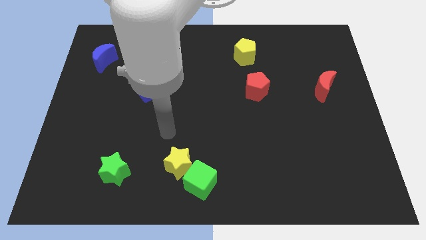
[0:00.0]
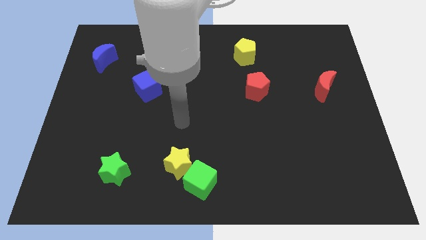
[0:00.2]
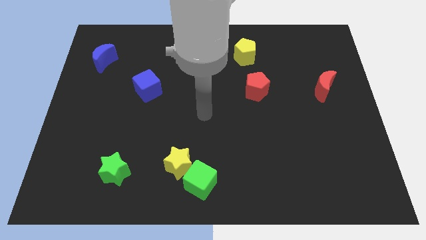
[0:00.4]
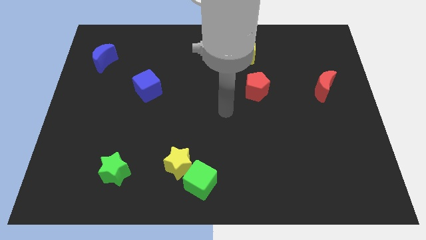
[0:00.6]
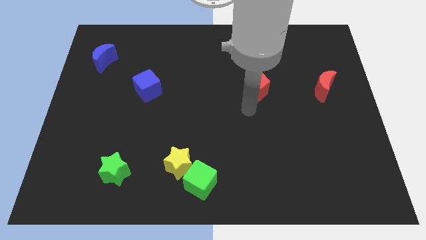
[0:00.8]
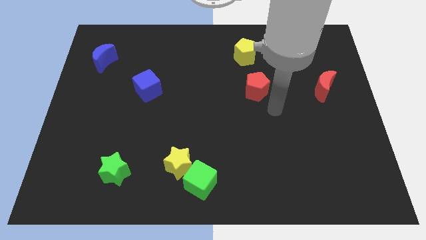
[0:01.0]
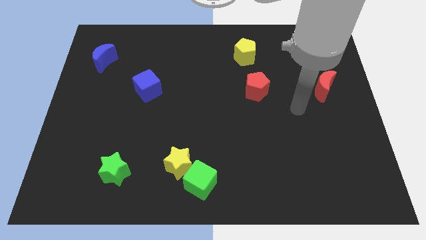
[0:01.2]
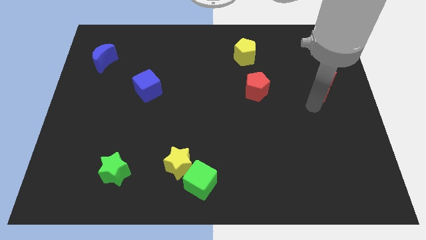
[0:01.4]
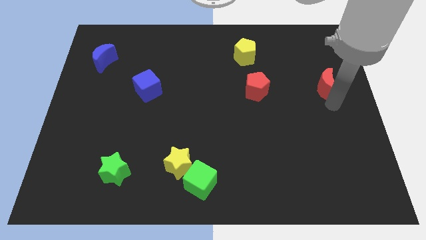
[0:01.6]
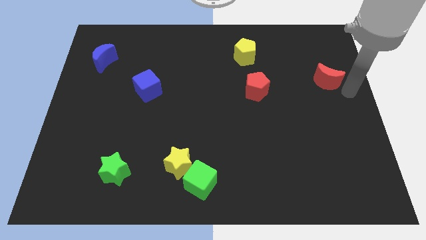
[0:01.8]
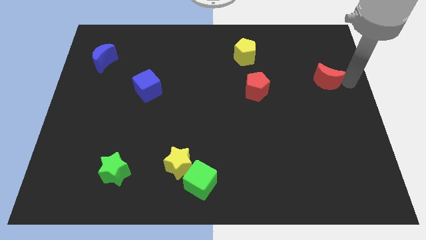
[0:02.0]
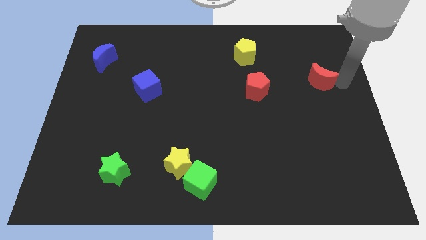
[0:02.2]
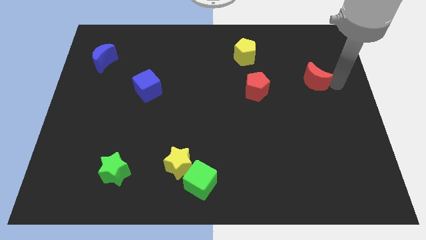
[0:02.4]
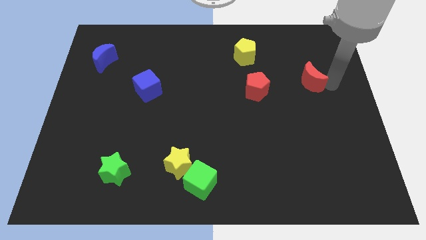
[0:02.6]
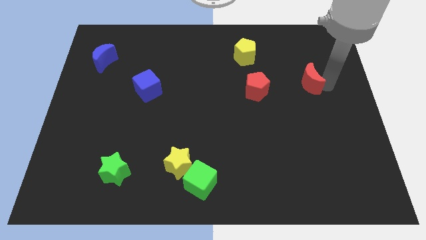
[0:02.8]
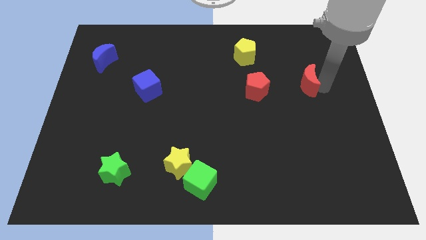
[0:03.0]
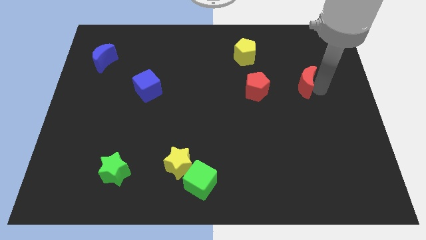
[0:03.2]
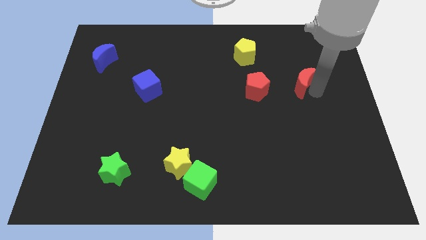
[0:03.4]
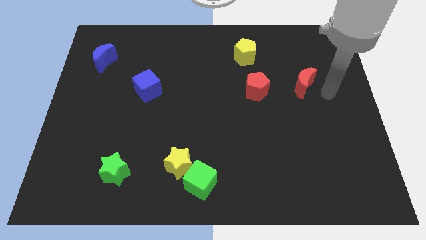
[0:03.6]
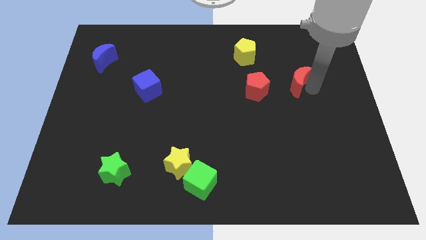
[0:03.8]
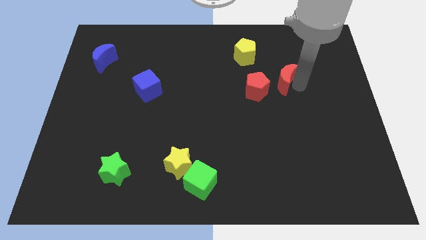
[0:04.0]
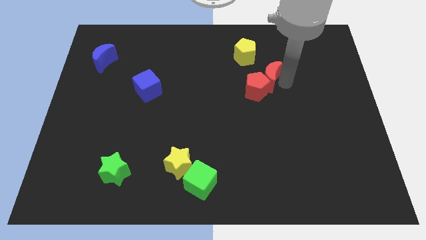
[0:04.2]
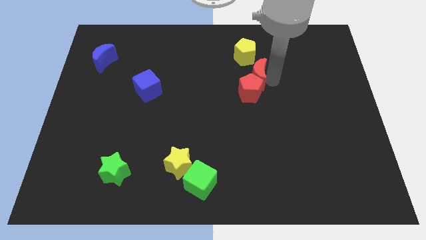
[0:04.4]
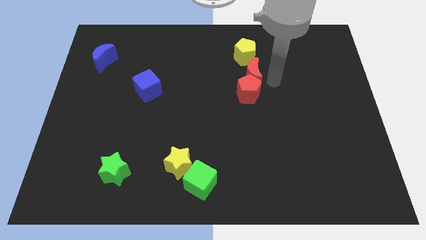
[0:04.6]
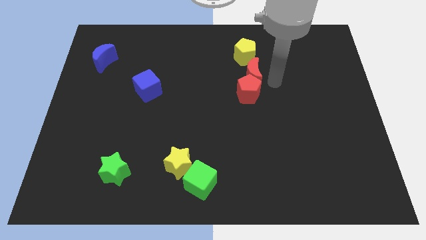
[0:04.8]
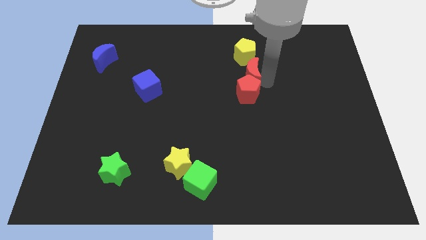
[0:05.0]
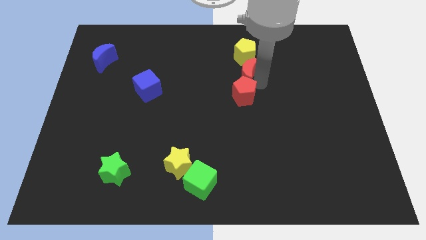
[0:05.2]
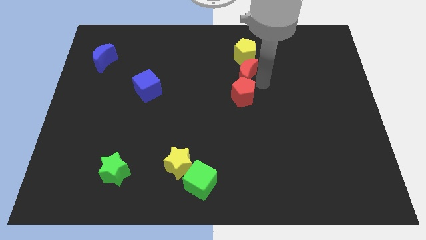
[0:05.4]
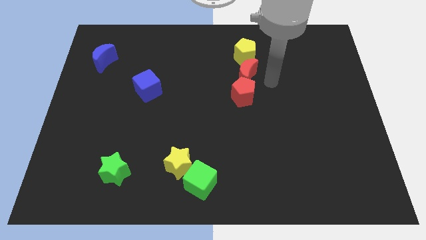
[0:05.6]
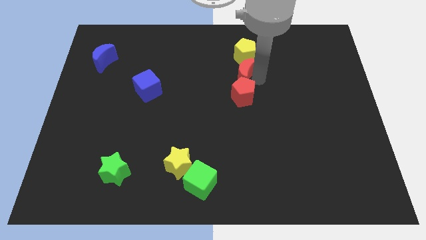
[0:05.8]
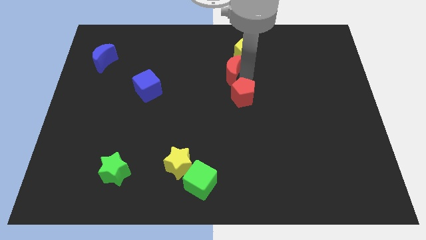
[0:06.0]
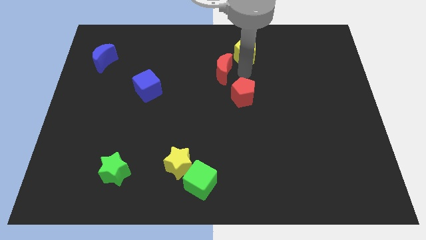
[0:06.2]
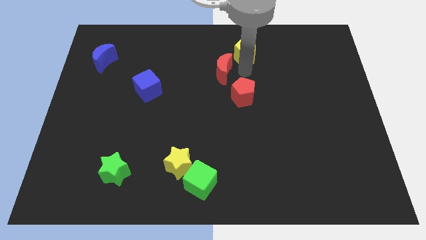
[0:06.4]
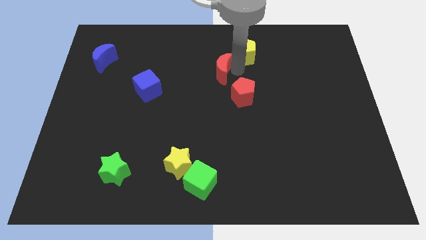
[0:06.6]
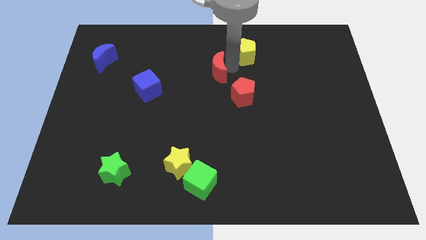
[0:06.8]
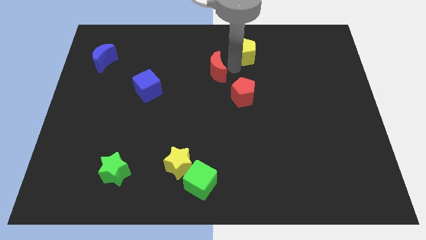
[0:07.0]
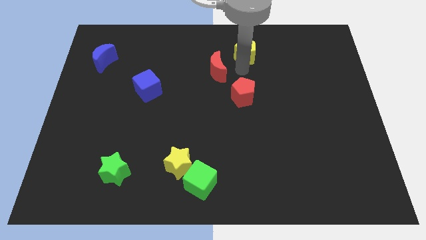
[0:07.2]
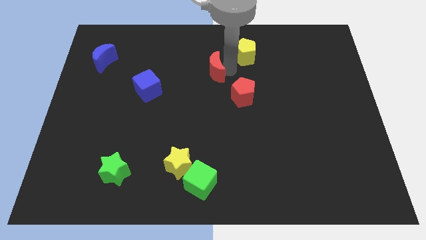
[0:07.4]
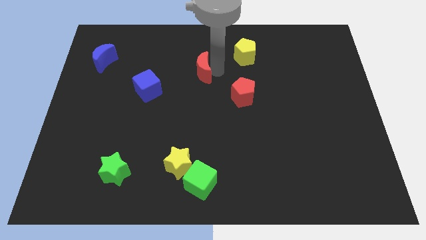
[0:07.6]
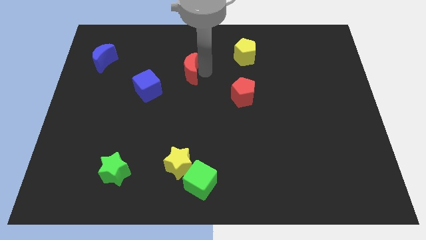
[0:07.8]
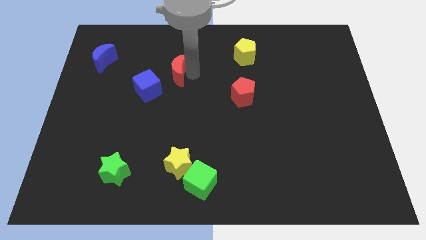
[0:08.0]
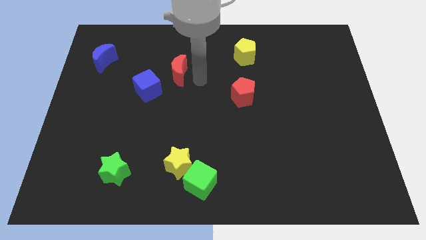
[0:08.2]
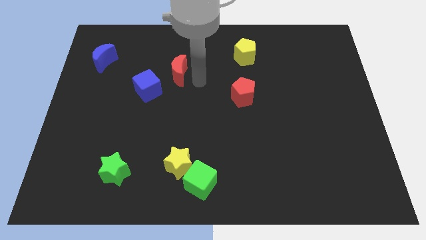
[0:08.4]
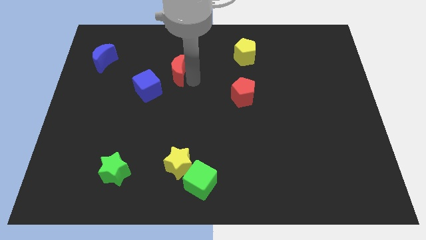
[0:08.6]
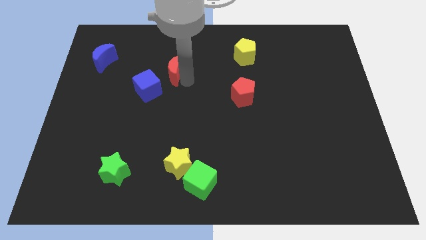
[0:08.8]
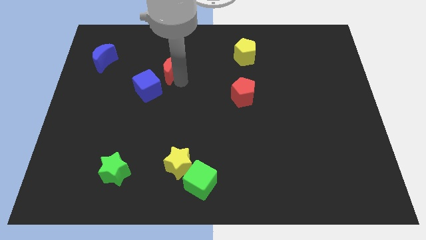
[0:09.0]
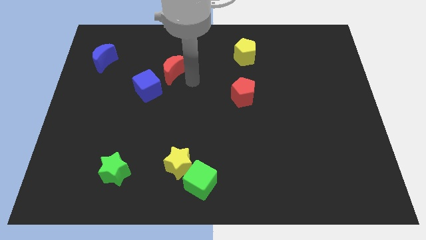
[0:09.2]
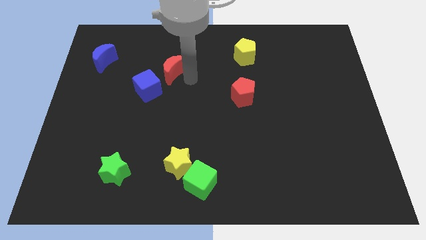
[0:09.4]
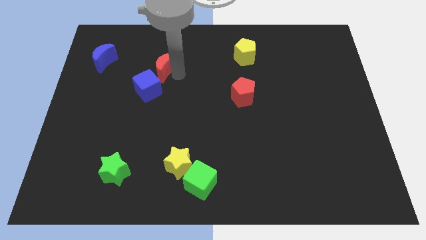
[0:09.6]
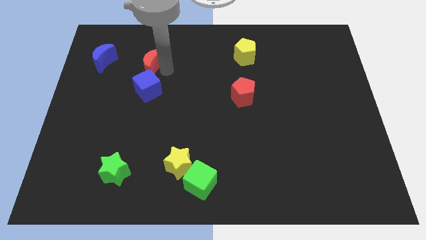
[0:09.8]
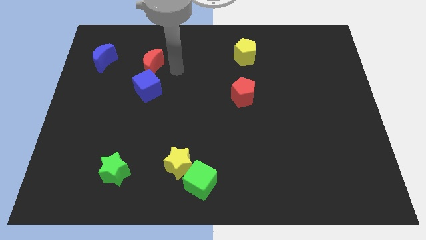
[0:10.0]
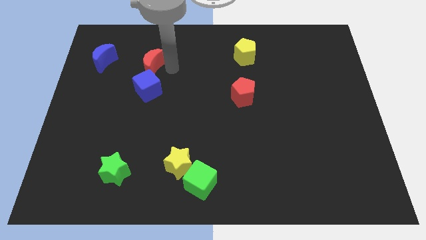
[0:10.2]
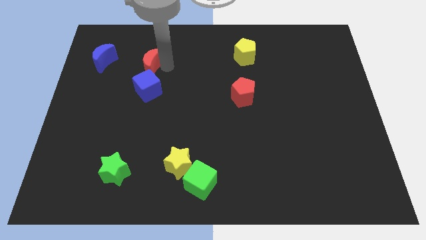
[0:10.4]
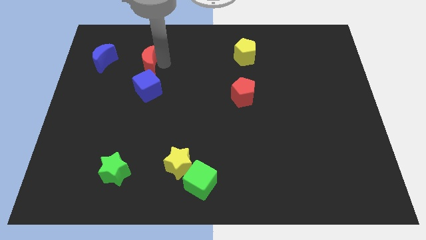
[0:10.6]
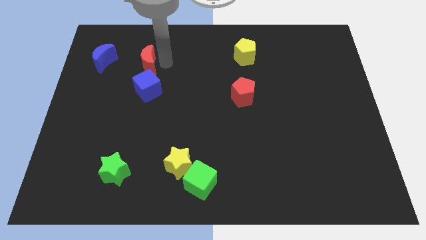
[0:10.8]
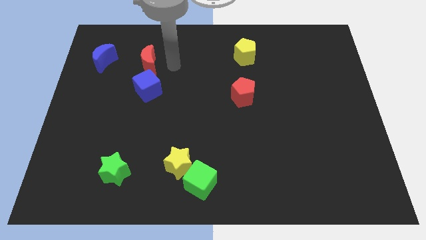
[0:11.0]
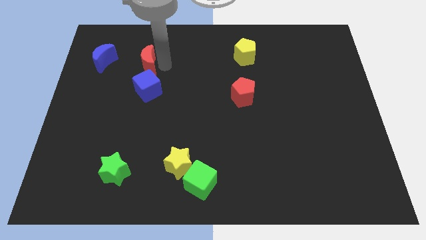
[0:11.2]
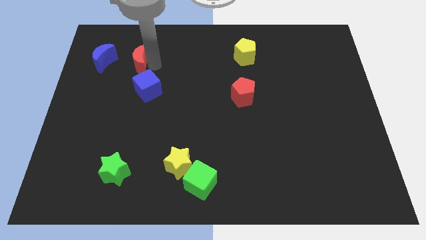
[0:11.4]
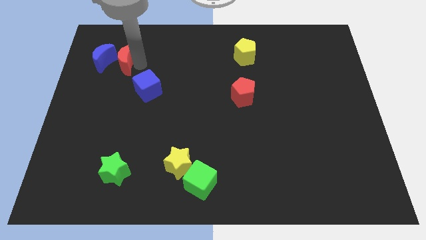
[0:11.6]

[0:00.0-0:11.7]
move the red moon next to the blue moon

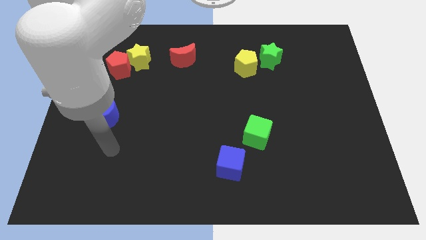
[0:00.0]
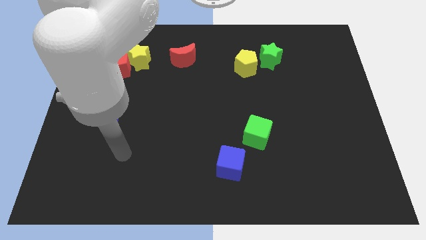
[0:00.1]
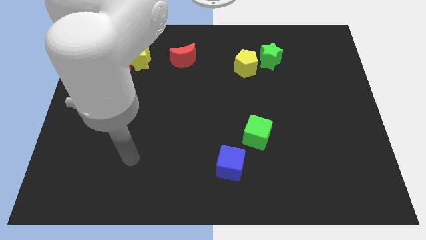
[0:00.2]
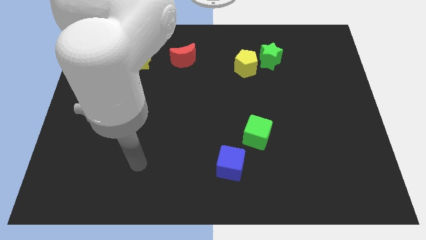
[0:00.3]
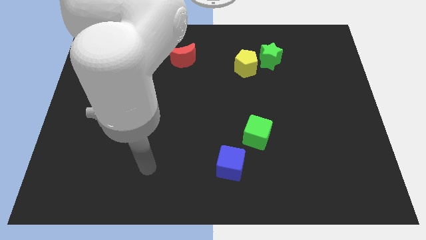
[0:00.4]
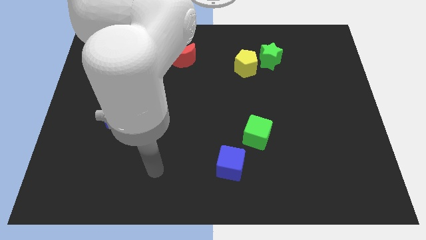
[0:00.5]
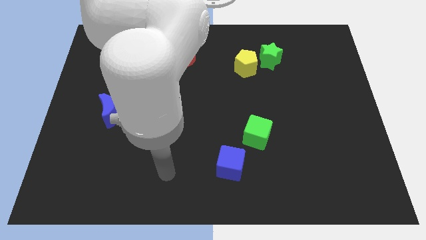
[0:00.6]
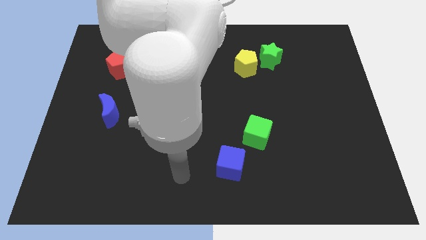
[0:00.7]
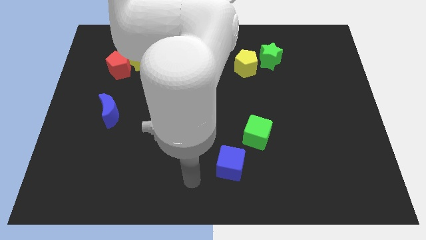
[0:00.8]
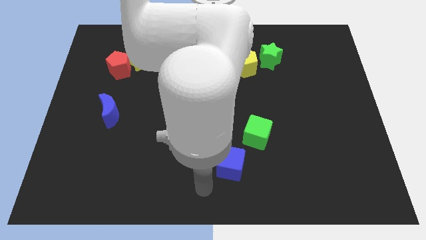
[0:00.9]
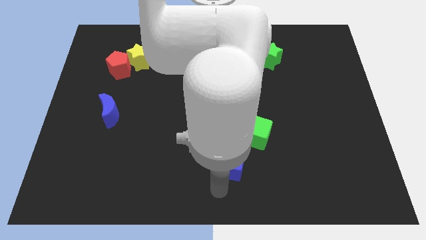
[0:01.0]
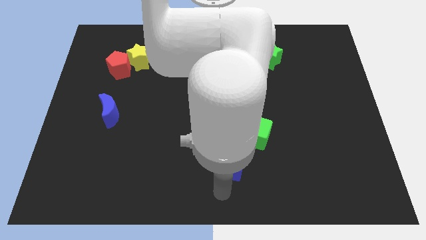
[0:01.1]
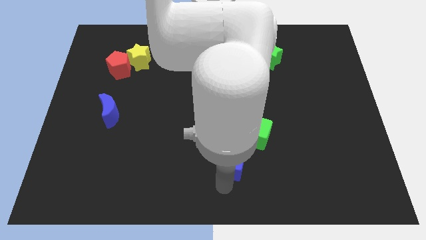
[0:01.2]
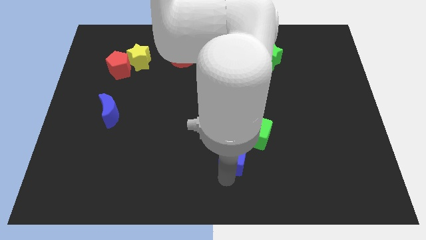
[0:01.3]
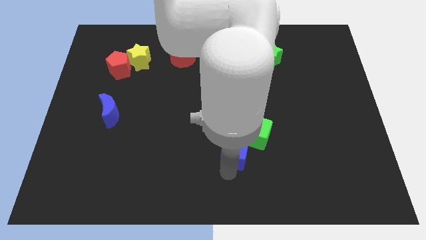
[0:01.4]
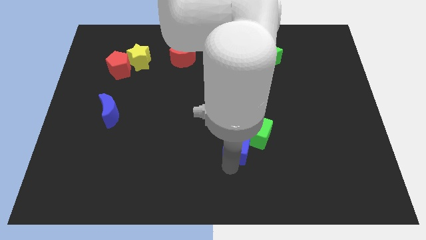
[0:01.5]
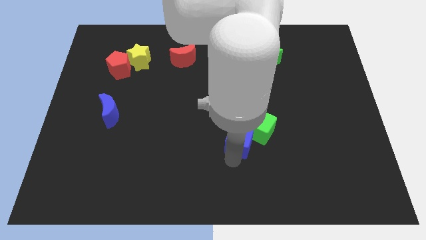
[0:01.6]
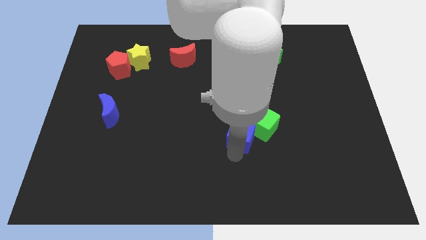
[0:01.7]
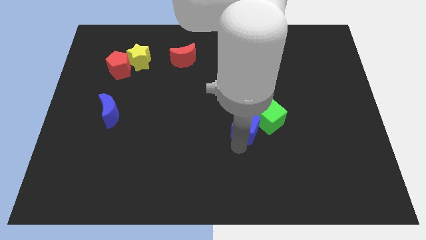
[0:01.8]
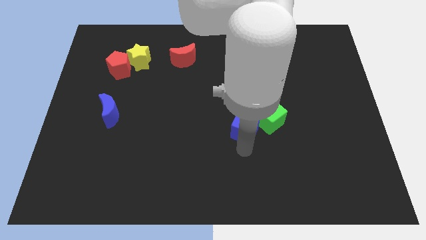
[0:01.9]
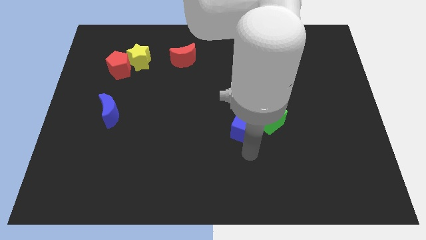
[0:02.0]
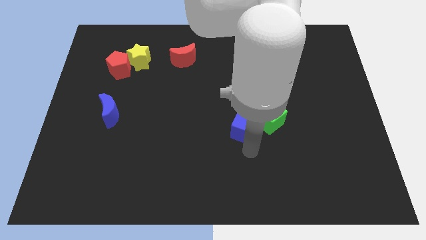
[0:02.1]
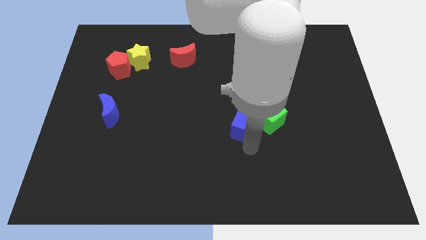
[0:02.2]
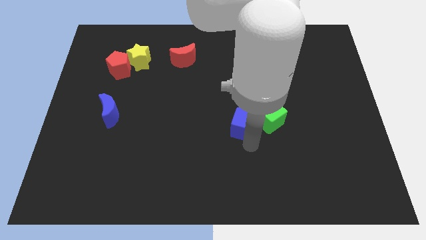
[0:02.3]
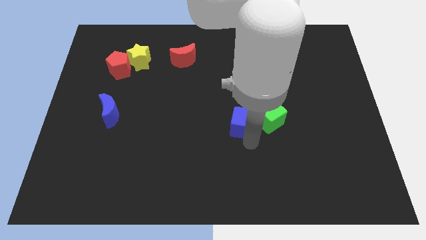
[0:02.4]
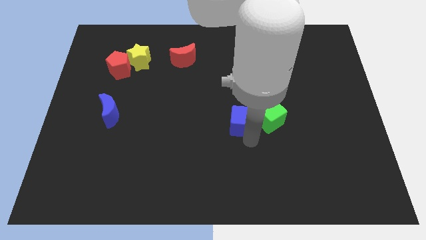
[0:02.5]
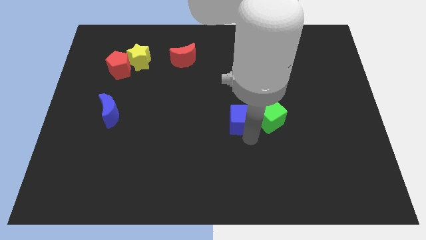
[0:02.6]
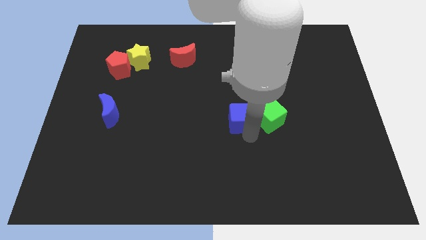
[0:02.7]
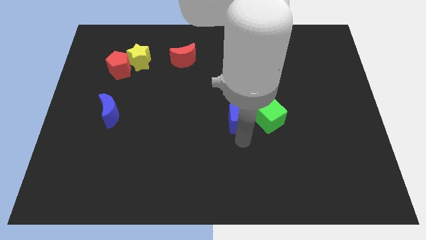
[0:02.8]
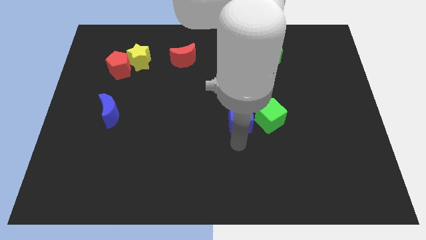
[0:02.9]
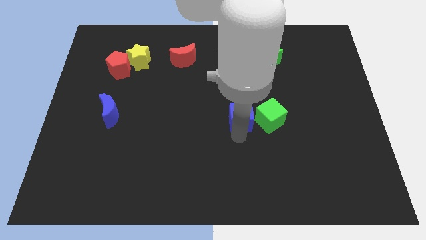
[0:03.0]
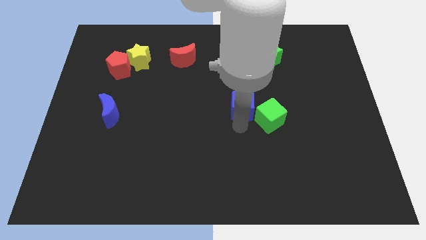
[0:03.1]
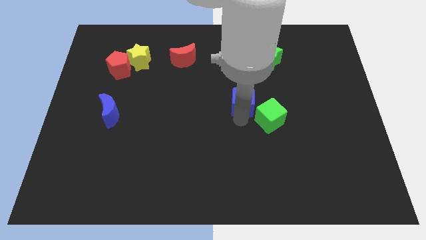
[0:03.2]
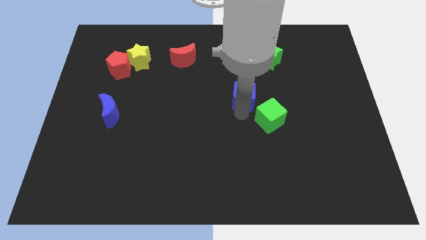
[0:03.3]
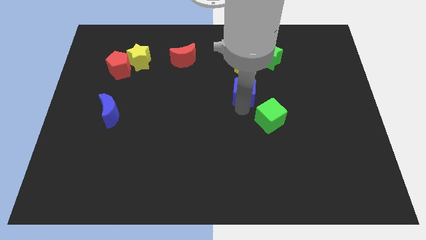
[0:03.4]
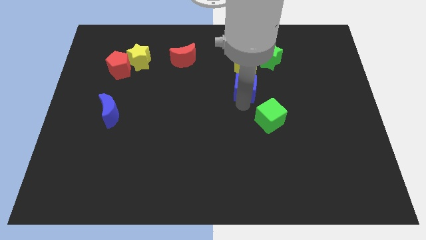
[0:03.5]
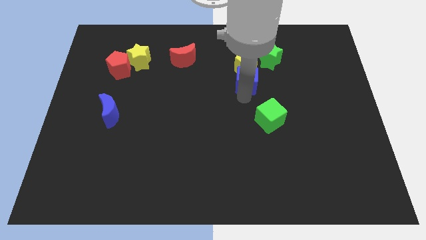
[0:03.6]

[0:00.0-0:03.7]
push the blue cube close to the yellow pentagon
